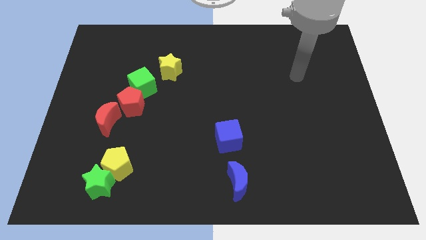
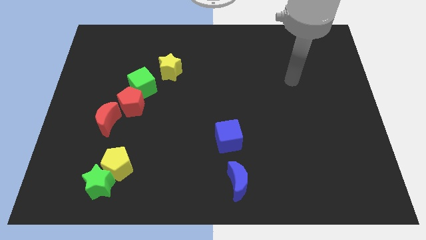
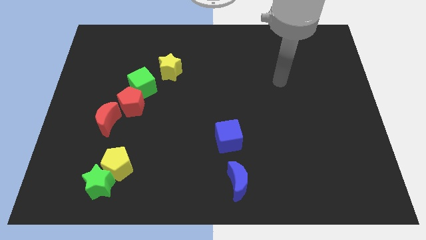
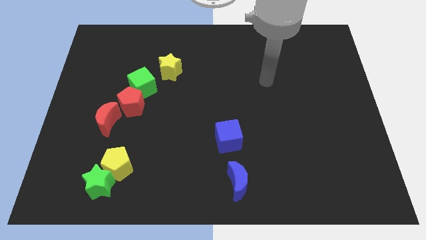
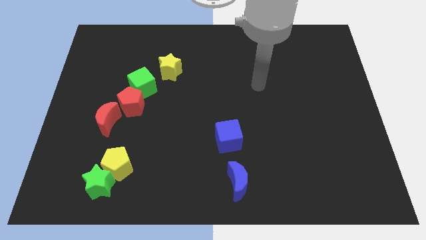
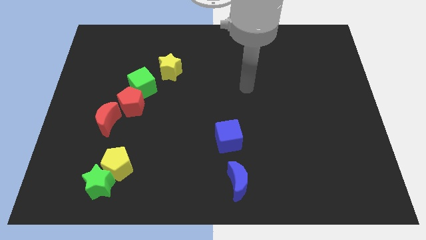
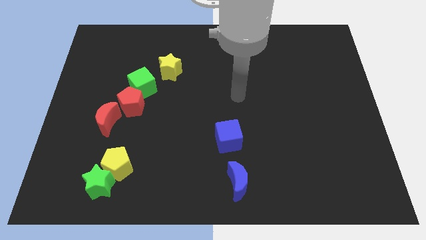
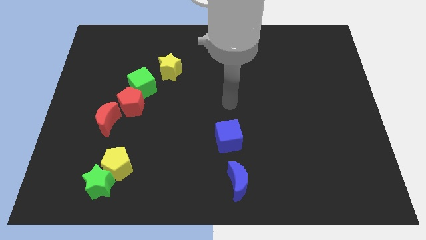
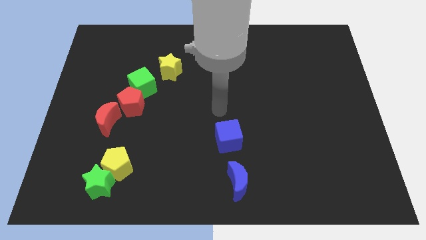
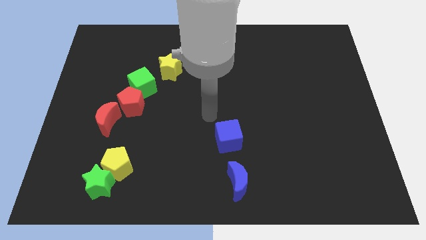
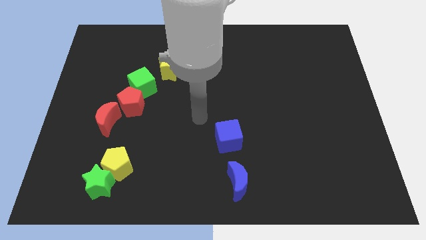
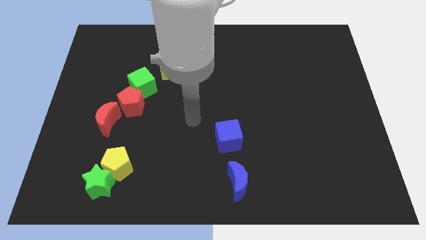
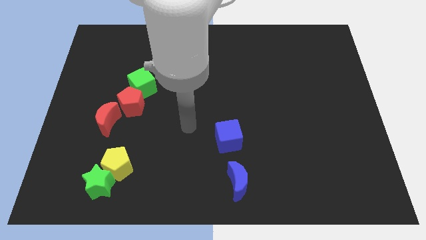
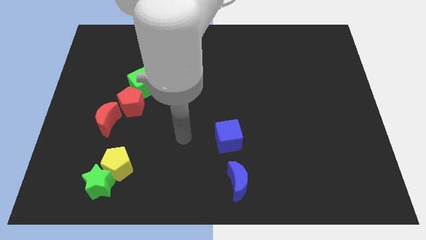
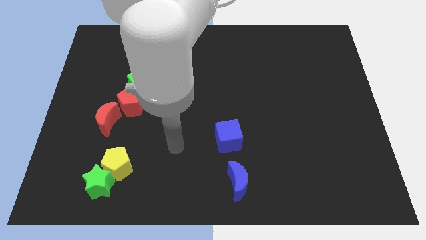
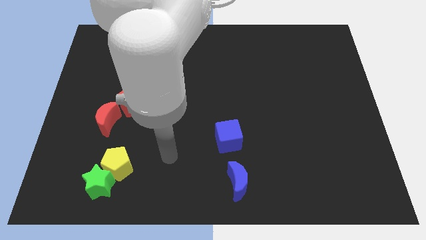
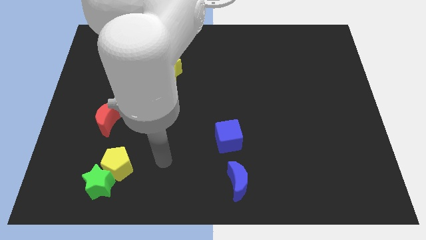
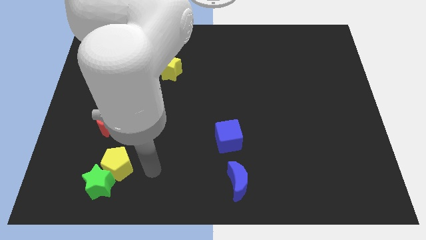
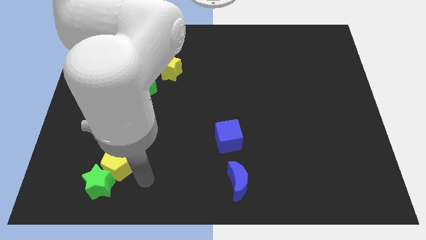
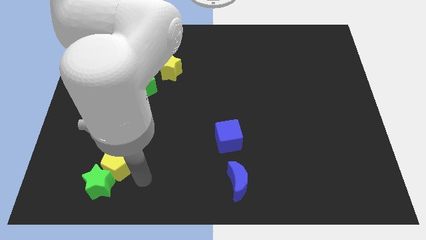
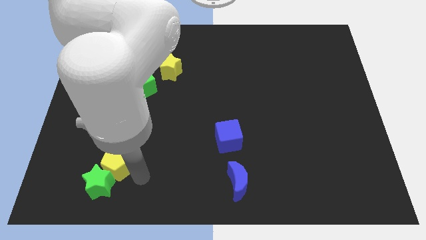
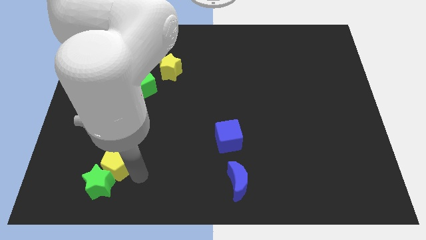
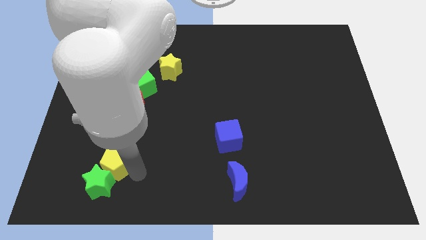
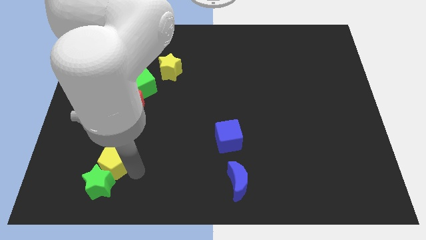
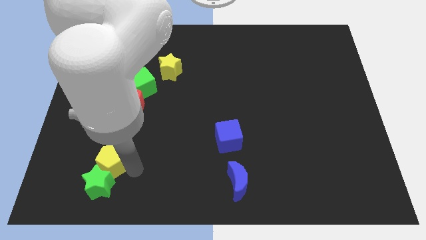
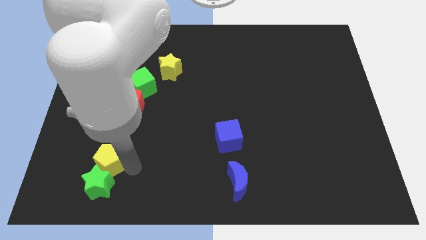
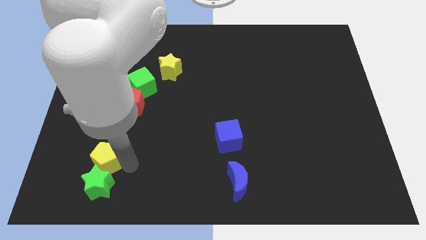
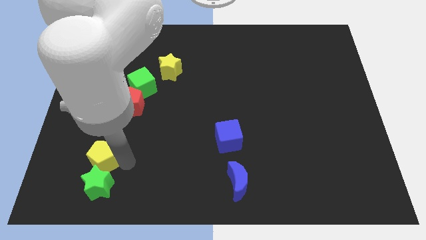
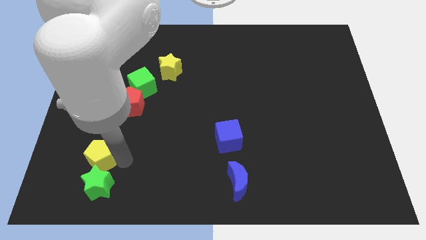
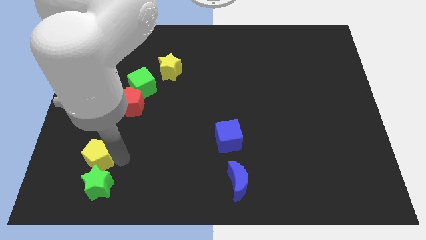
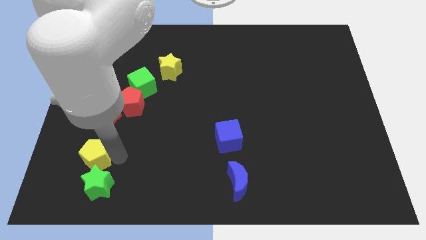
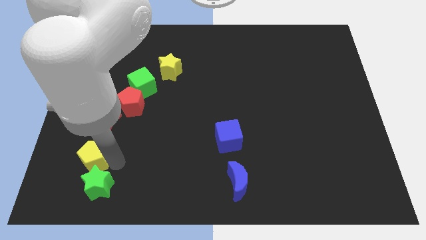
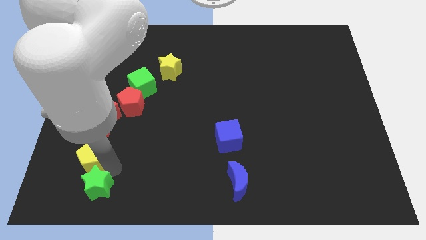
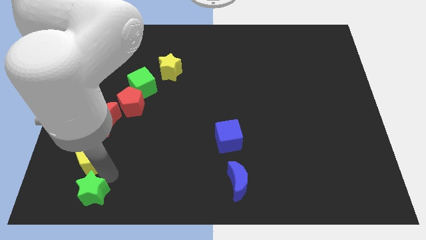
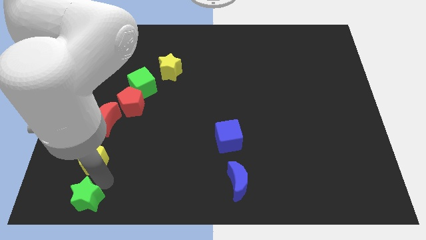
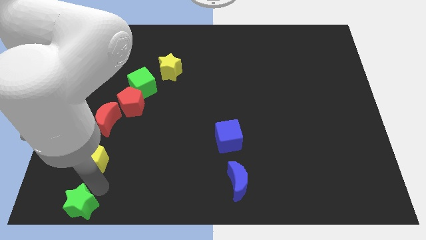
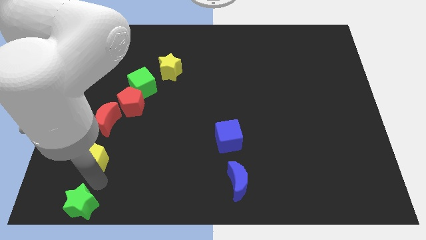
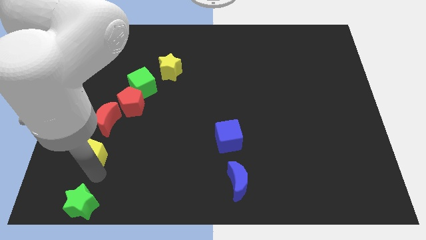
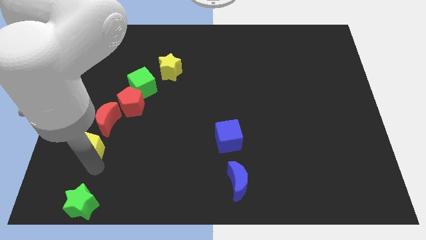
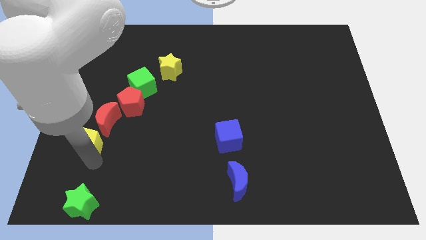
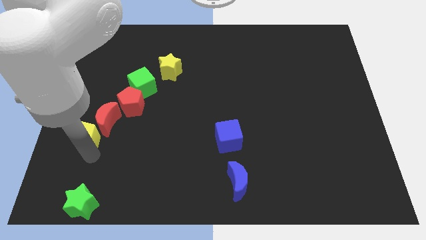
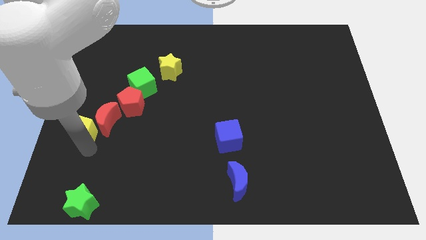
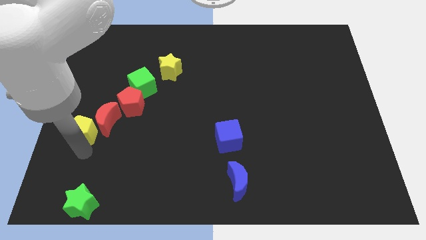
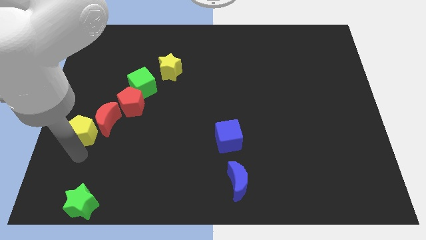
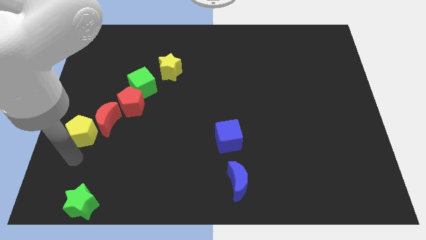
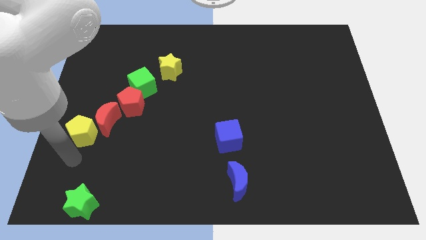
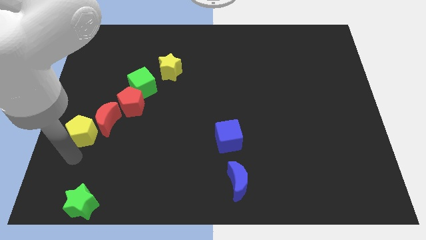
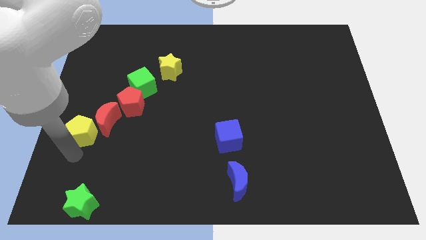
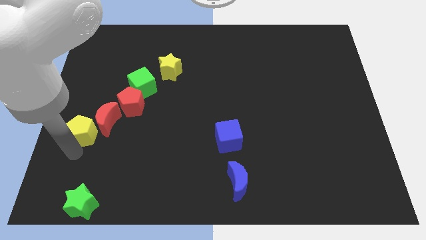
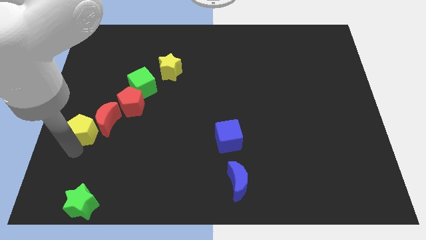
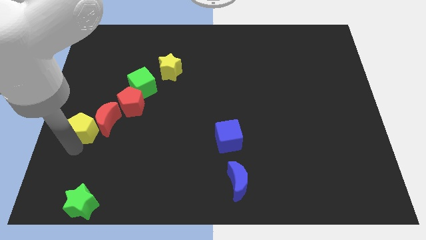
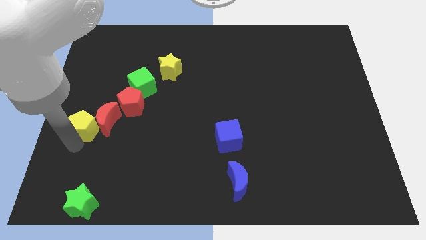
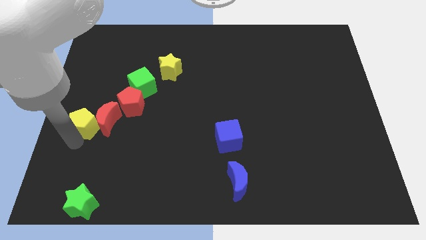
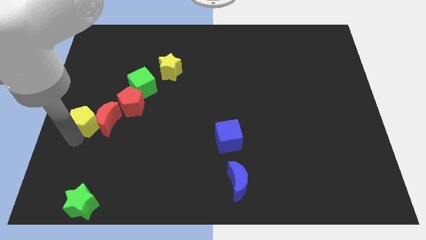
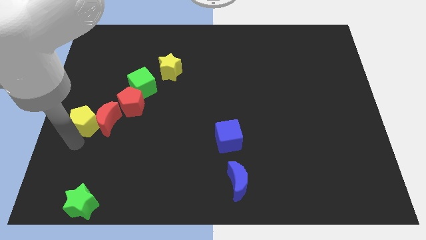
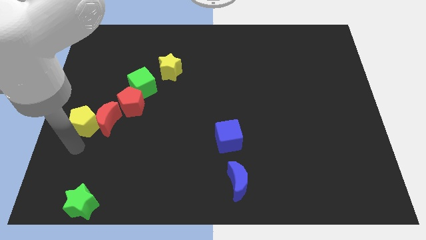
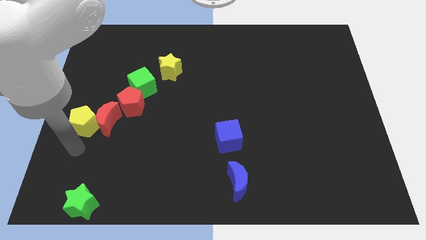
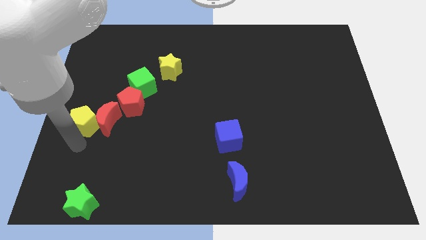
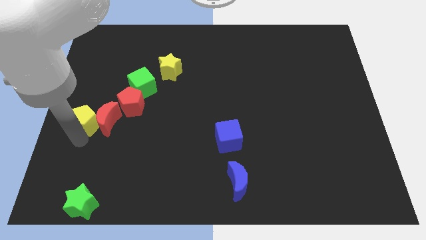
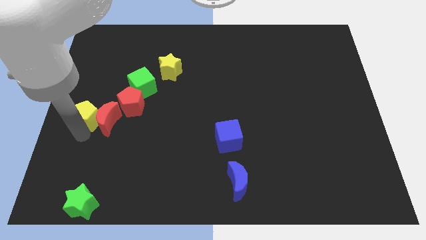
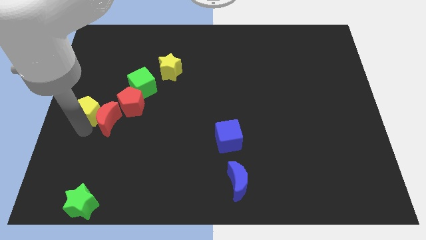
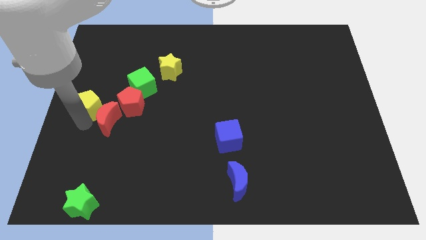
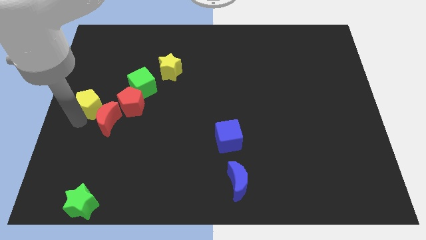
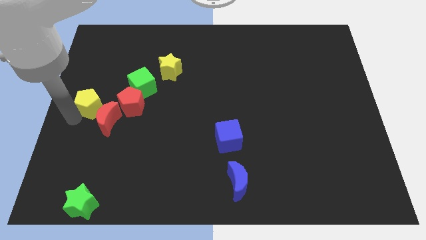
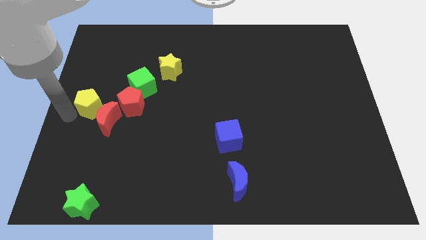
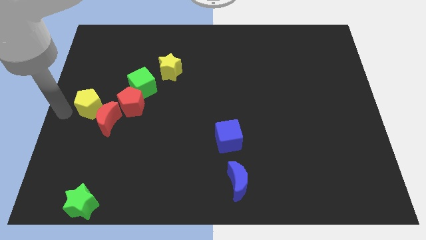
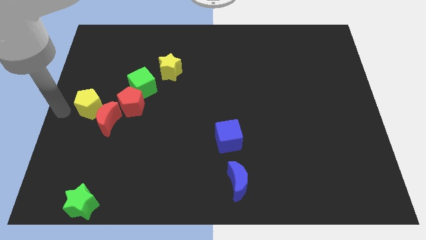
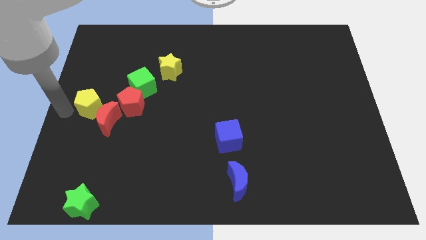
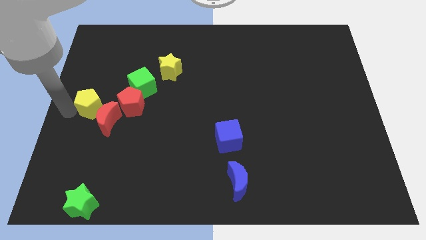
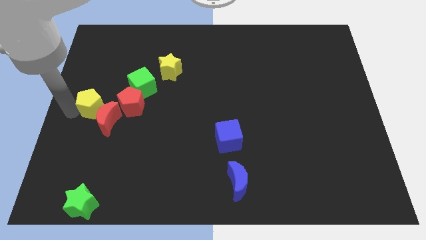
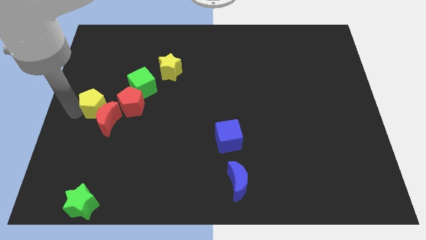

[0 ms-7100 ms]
push the yellow pentagon diagonally down and to the left of the green cube
